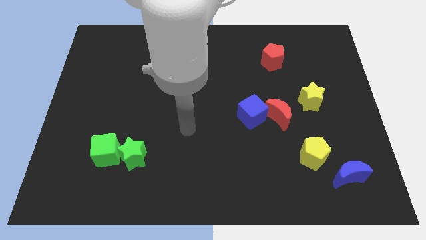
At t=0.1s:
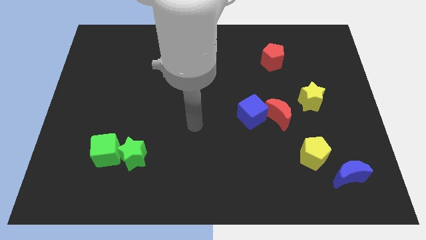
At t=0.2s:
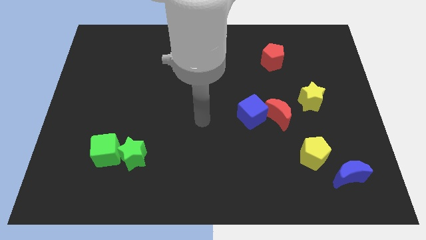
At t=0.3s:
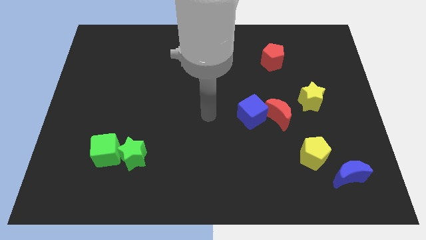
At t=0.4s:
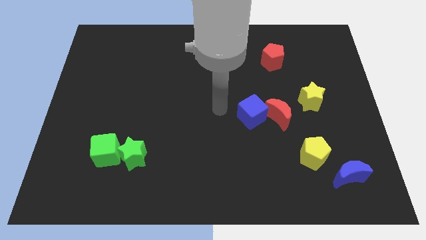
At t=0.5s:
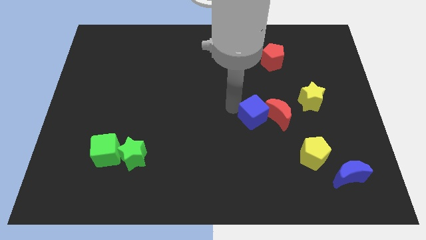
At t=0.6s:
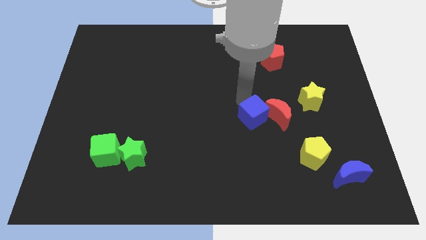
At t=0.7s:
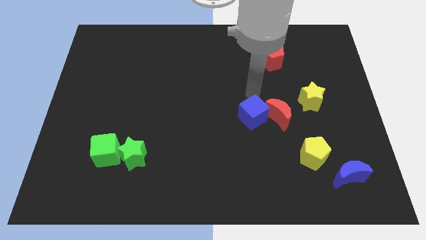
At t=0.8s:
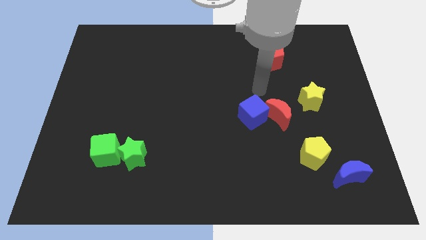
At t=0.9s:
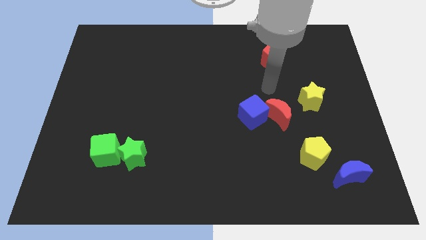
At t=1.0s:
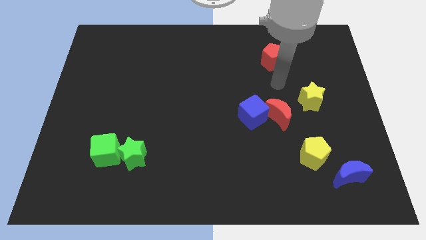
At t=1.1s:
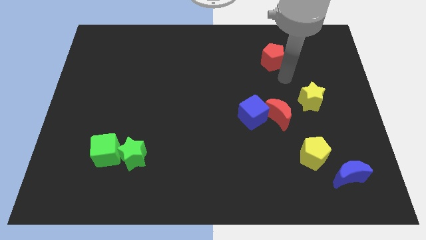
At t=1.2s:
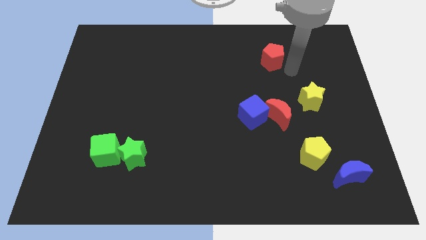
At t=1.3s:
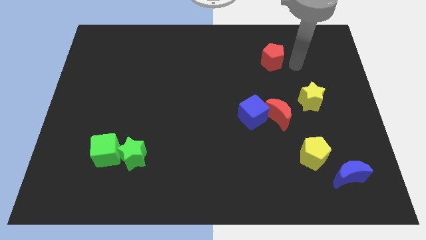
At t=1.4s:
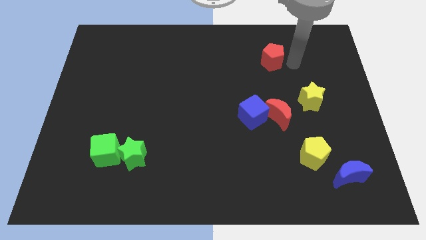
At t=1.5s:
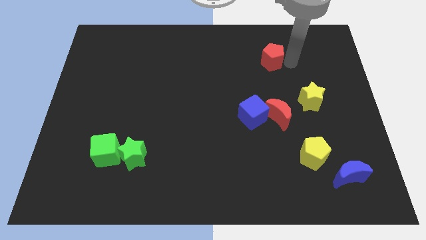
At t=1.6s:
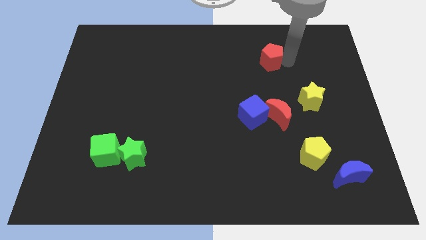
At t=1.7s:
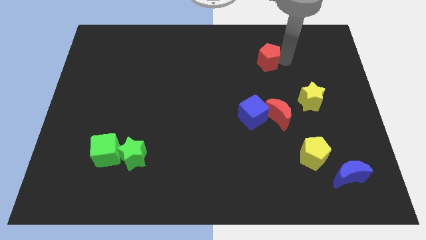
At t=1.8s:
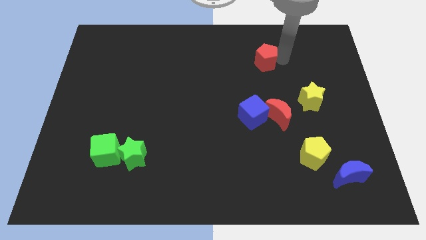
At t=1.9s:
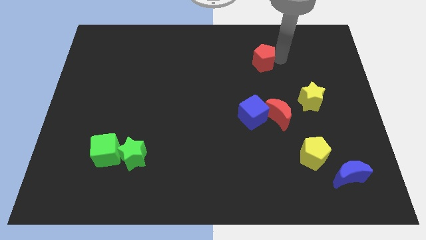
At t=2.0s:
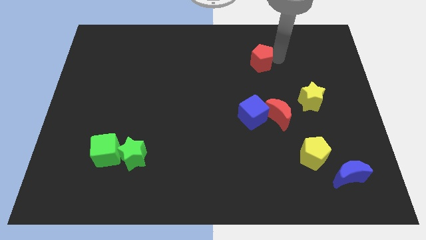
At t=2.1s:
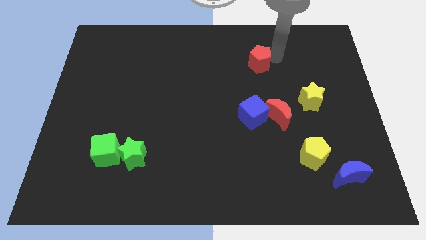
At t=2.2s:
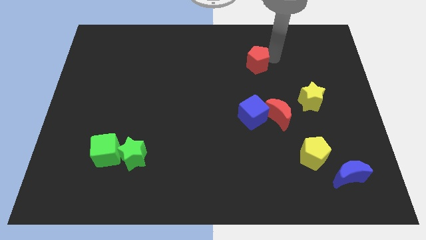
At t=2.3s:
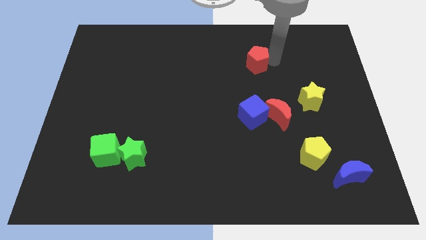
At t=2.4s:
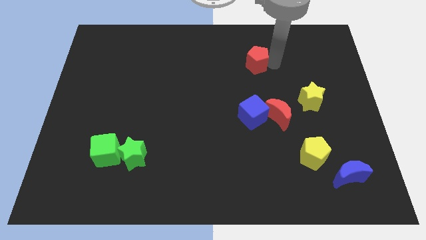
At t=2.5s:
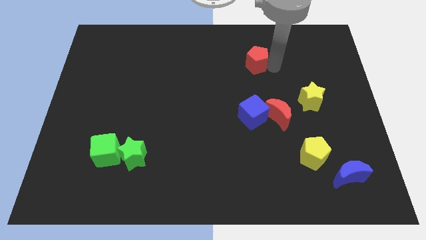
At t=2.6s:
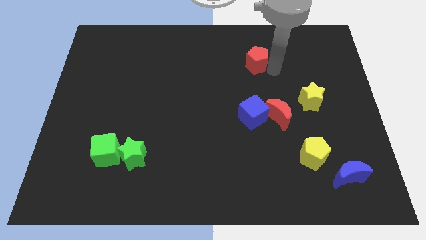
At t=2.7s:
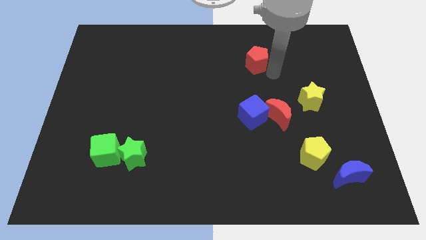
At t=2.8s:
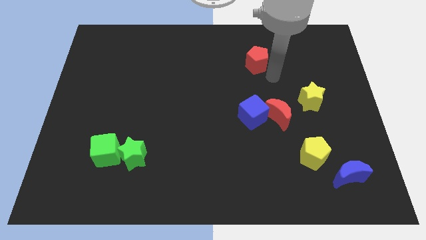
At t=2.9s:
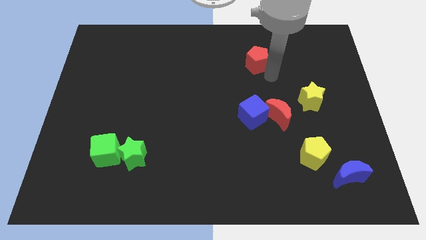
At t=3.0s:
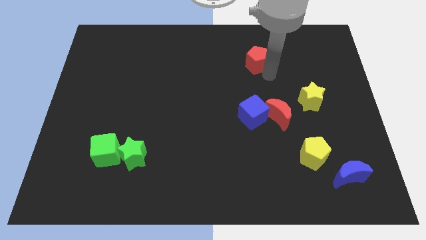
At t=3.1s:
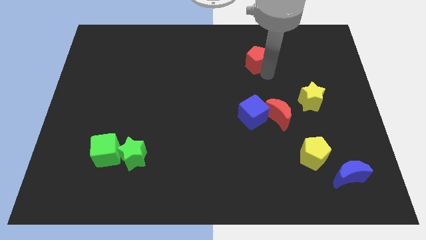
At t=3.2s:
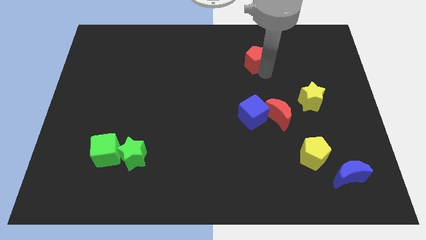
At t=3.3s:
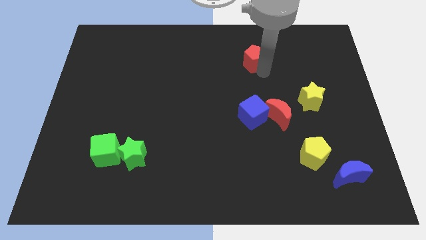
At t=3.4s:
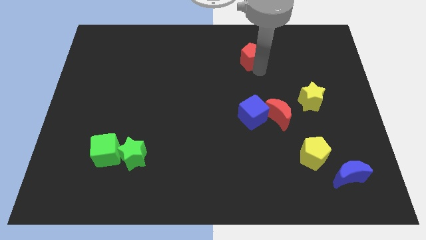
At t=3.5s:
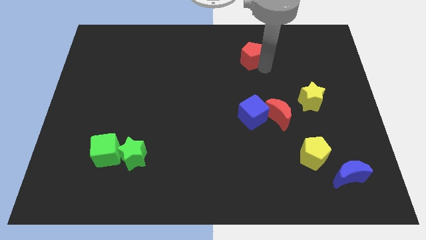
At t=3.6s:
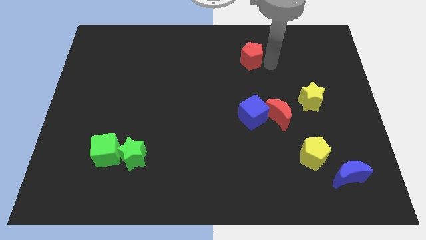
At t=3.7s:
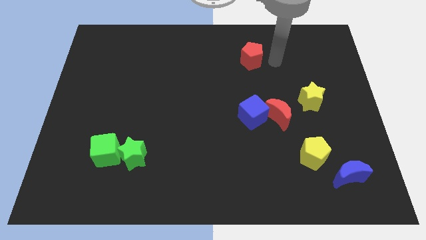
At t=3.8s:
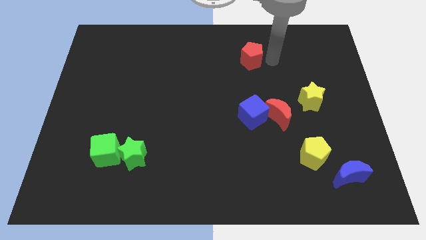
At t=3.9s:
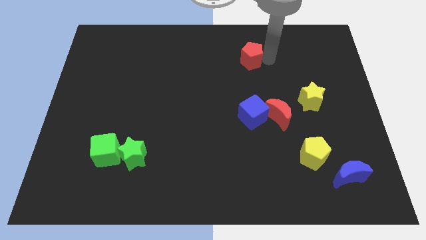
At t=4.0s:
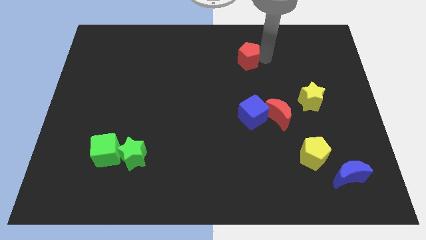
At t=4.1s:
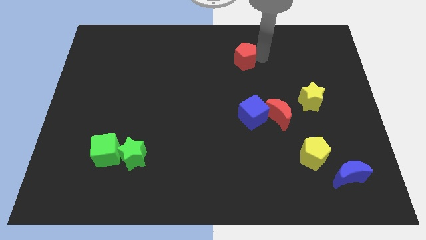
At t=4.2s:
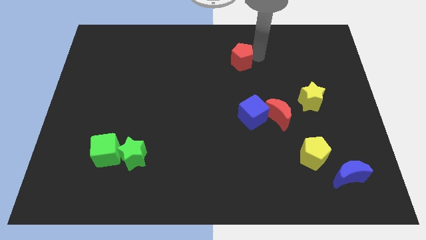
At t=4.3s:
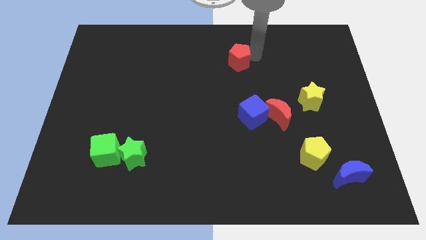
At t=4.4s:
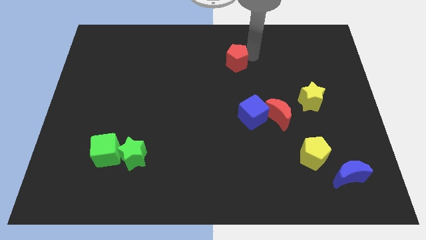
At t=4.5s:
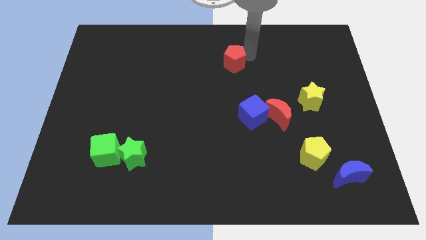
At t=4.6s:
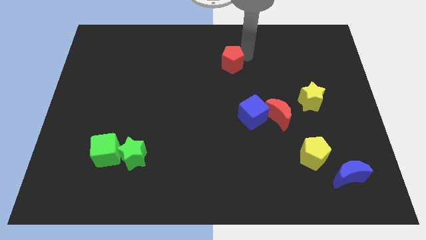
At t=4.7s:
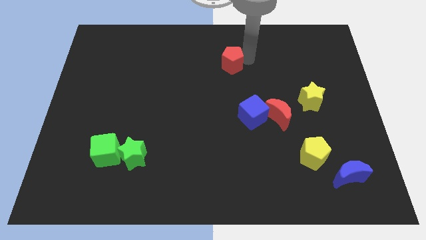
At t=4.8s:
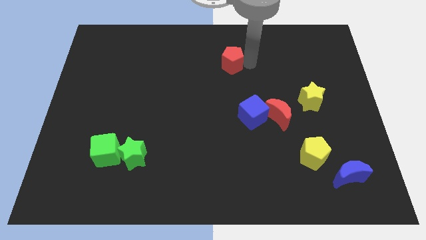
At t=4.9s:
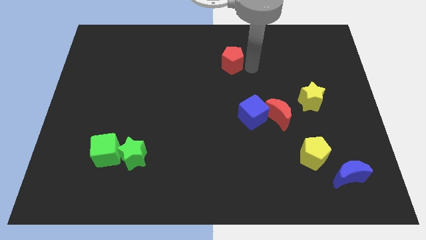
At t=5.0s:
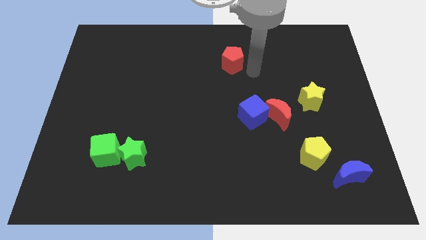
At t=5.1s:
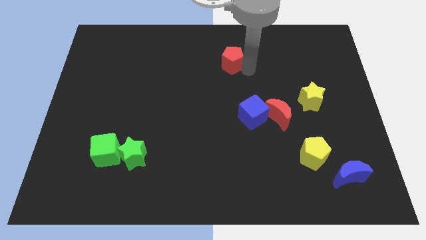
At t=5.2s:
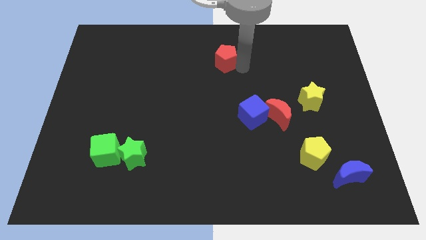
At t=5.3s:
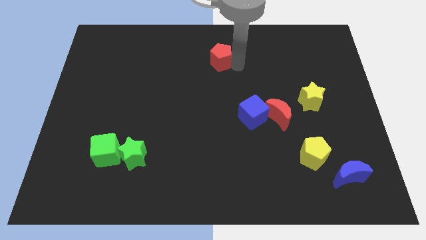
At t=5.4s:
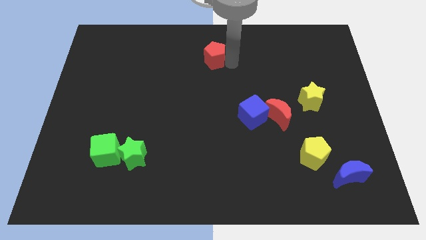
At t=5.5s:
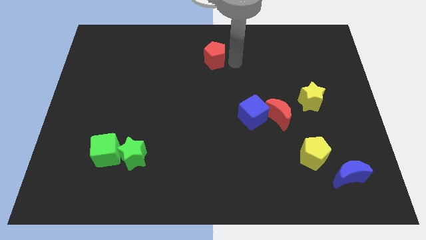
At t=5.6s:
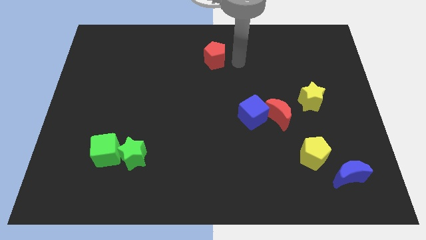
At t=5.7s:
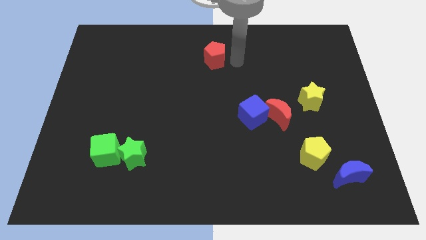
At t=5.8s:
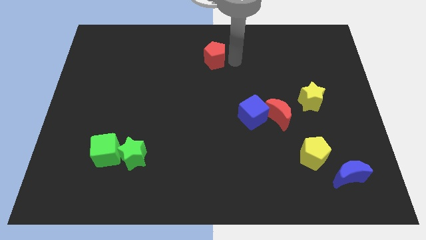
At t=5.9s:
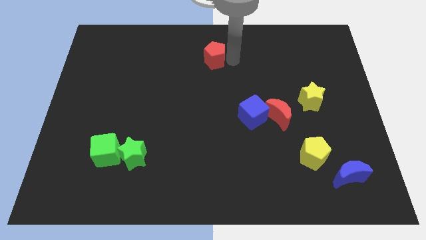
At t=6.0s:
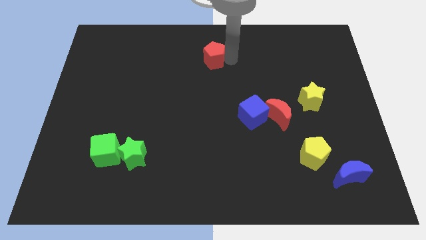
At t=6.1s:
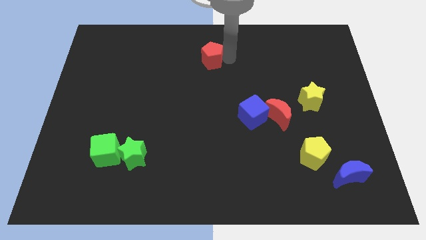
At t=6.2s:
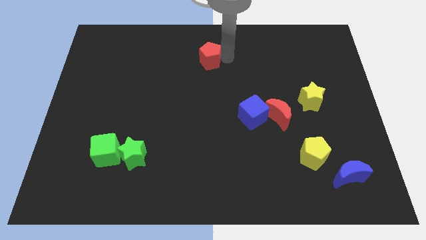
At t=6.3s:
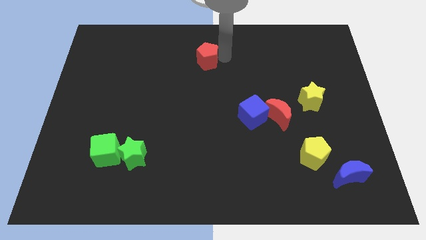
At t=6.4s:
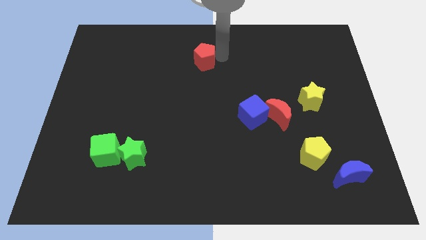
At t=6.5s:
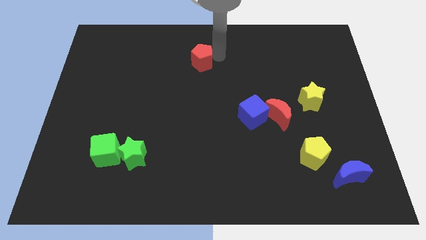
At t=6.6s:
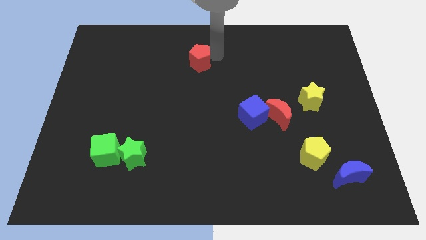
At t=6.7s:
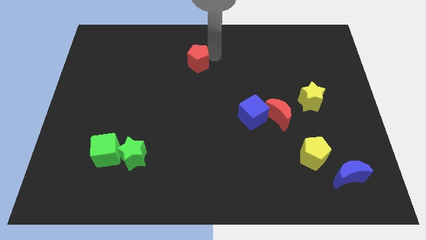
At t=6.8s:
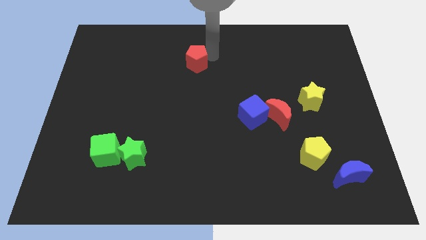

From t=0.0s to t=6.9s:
push the red pentagon to the left

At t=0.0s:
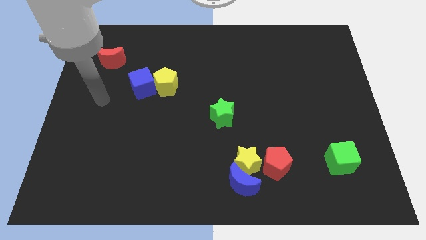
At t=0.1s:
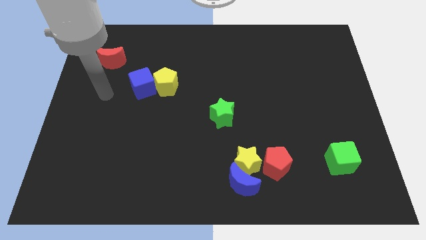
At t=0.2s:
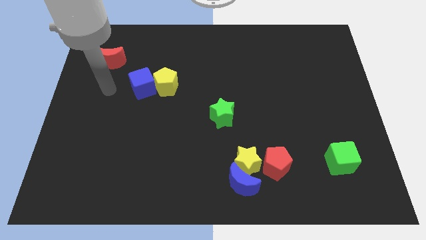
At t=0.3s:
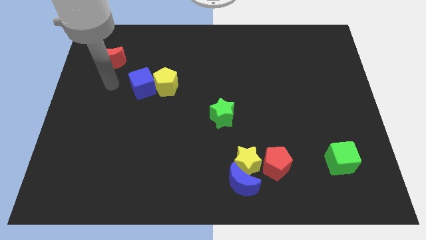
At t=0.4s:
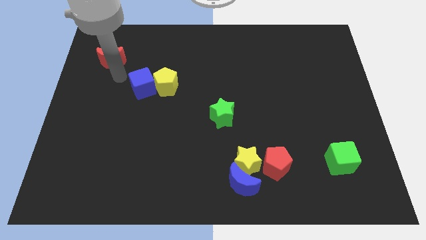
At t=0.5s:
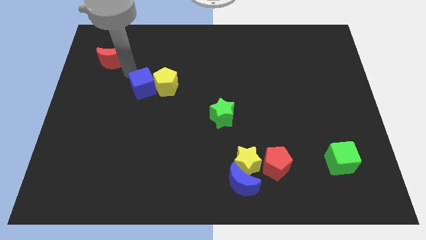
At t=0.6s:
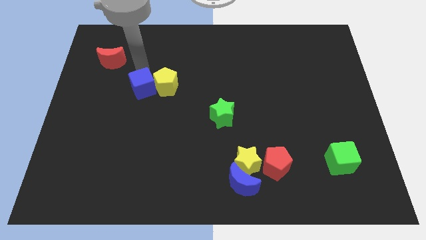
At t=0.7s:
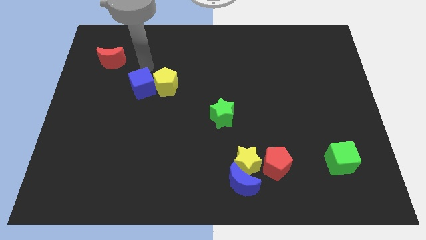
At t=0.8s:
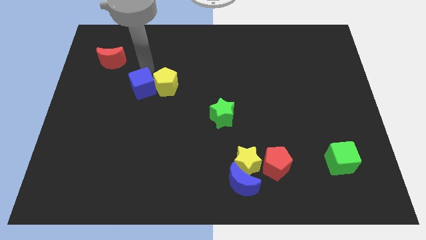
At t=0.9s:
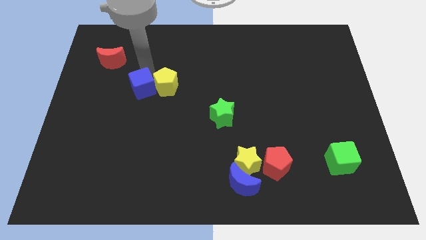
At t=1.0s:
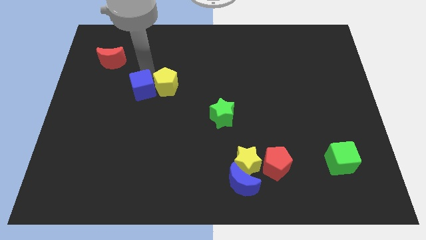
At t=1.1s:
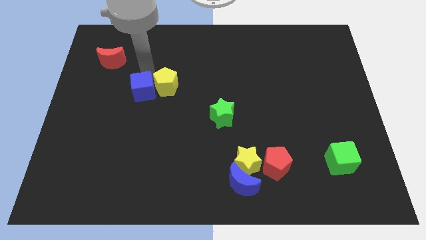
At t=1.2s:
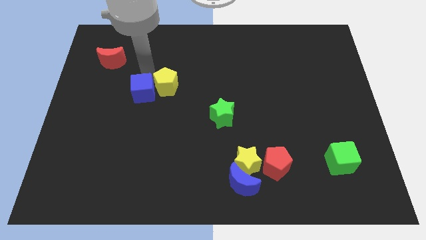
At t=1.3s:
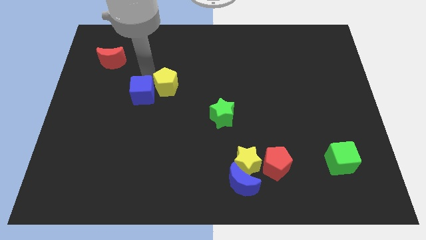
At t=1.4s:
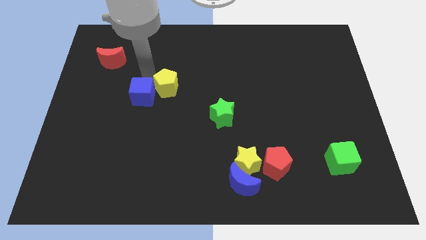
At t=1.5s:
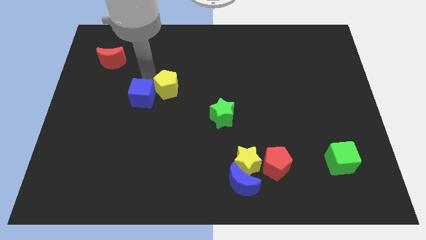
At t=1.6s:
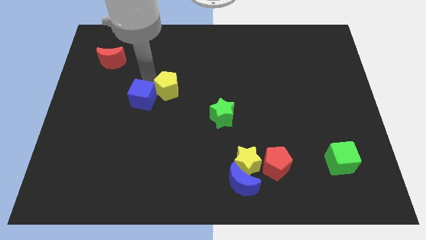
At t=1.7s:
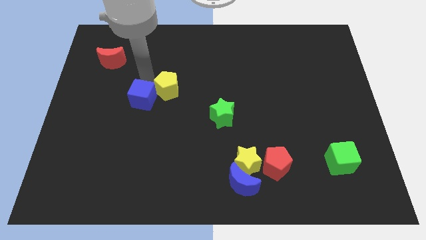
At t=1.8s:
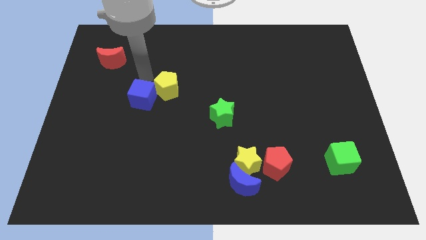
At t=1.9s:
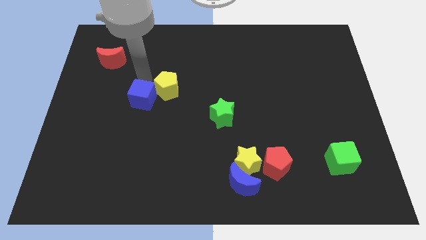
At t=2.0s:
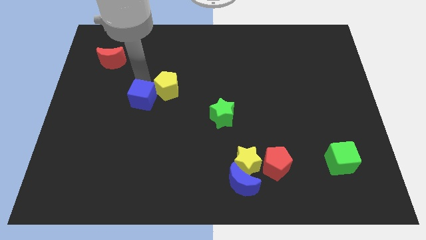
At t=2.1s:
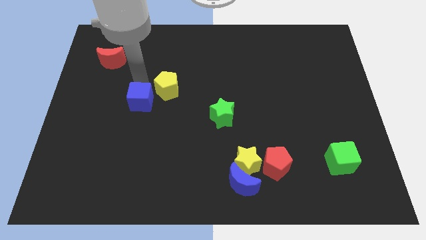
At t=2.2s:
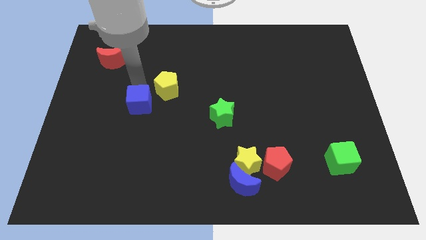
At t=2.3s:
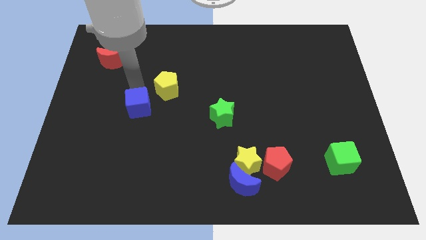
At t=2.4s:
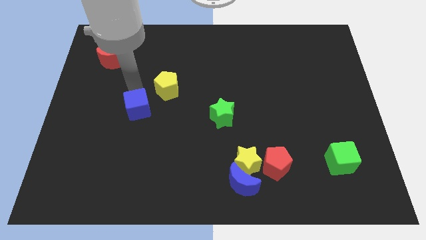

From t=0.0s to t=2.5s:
slide the blue cube a little downwards
